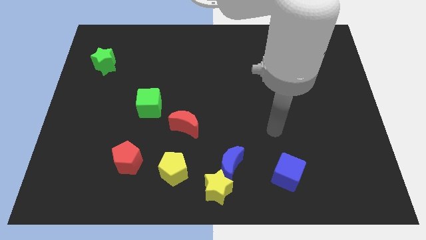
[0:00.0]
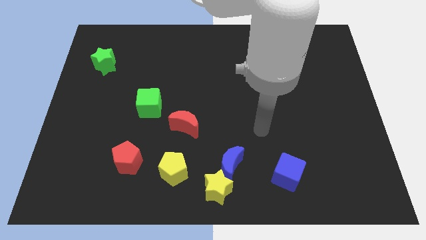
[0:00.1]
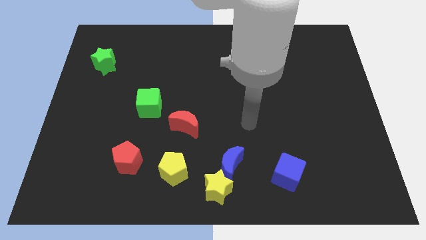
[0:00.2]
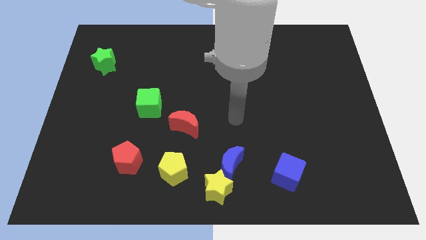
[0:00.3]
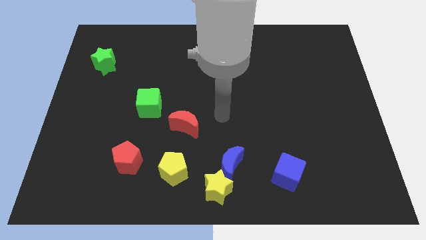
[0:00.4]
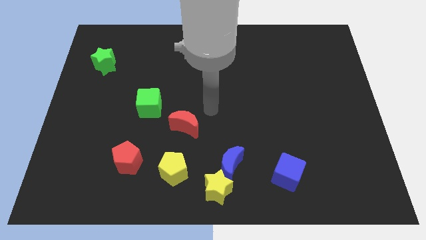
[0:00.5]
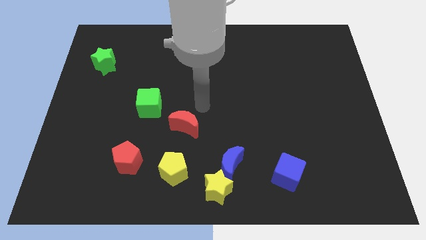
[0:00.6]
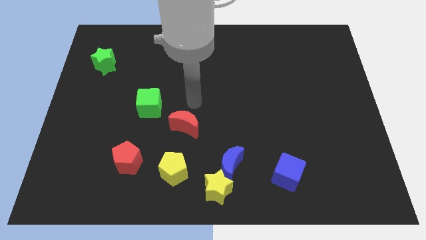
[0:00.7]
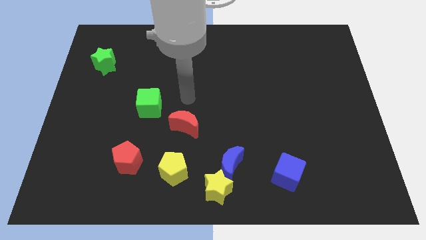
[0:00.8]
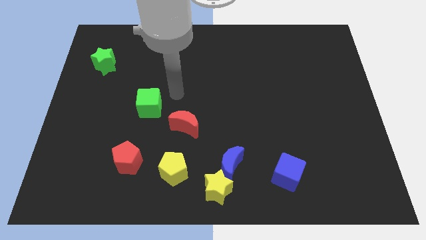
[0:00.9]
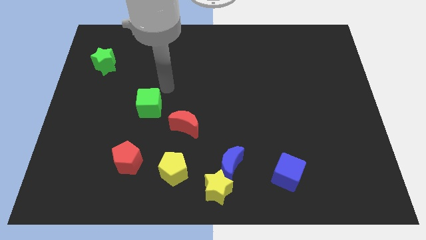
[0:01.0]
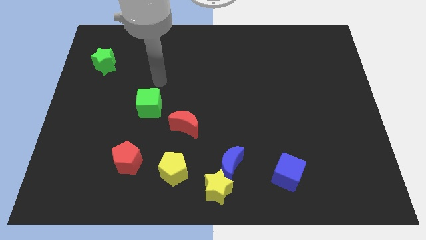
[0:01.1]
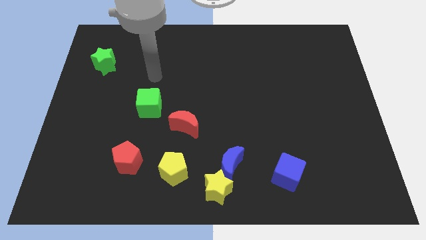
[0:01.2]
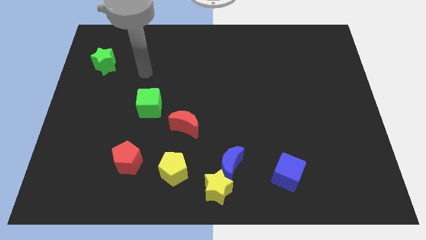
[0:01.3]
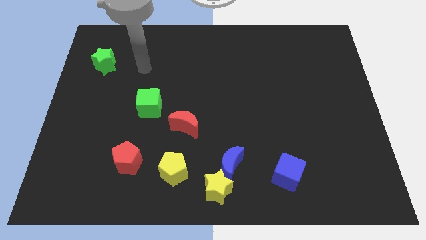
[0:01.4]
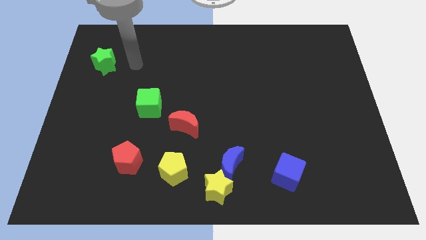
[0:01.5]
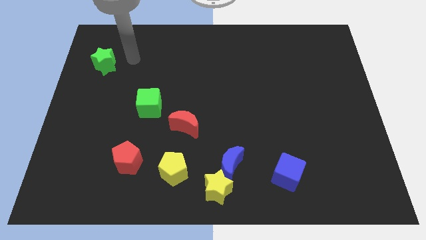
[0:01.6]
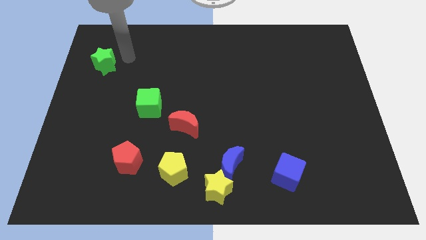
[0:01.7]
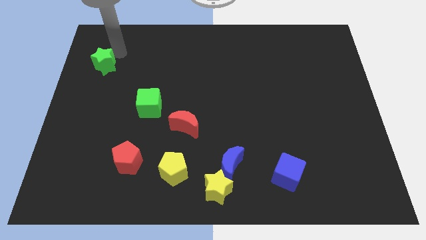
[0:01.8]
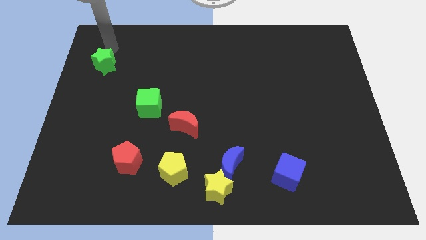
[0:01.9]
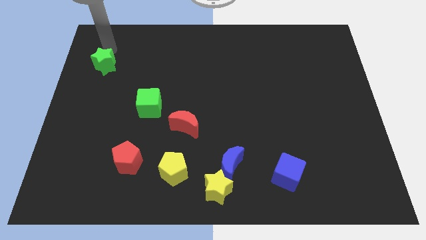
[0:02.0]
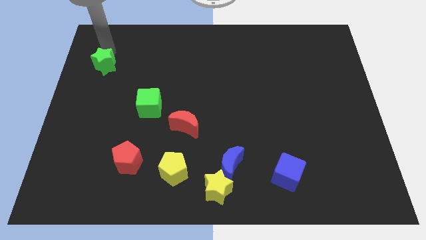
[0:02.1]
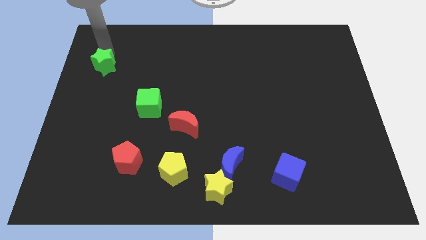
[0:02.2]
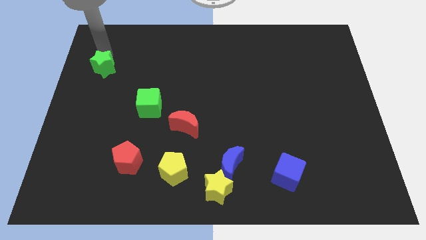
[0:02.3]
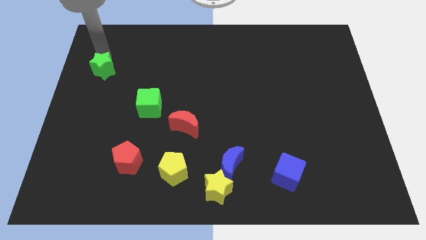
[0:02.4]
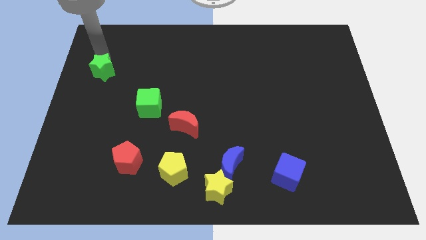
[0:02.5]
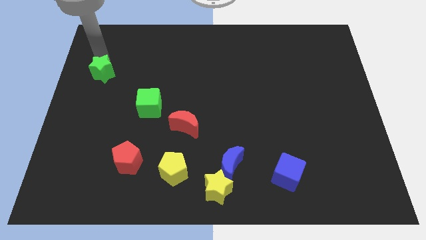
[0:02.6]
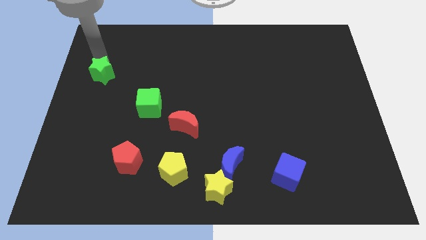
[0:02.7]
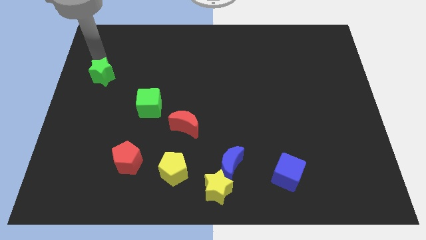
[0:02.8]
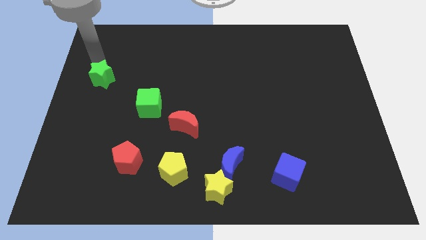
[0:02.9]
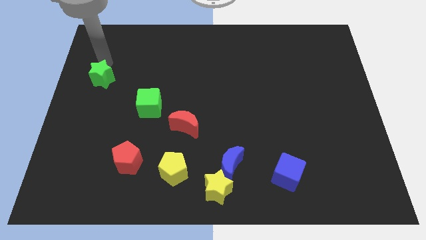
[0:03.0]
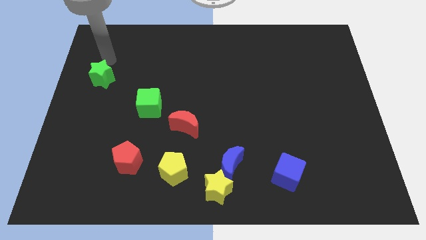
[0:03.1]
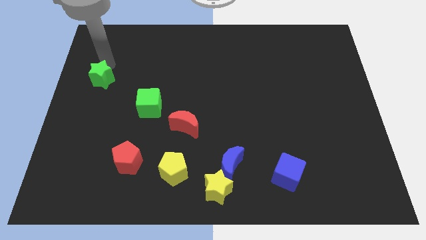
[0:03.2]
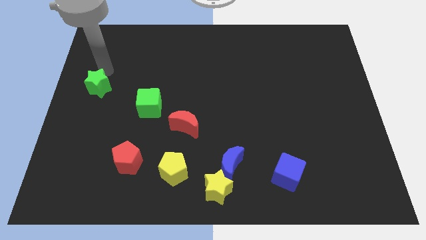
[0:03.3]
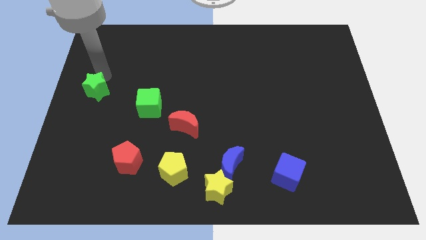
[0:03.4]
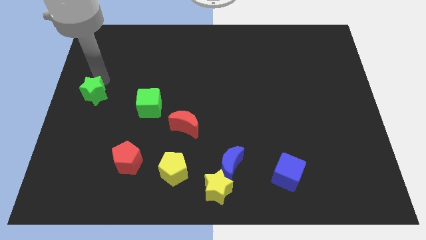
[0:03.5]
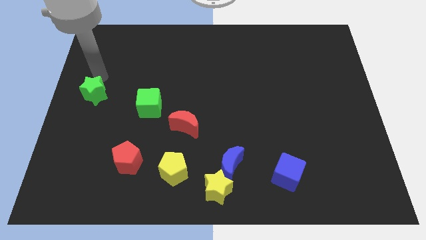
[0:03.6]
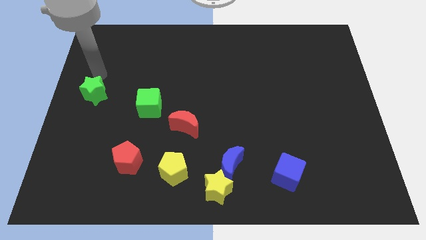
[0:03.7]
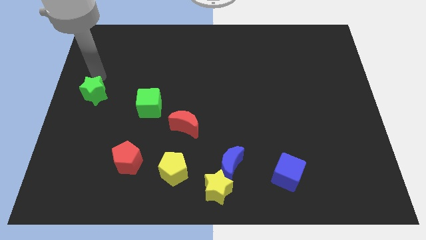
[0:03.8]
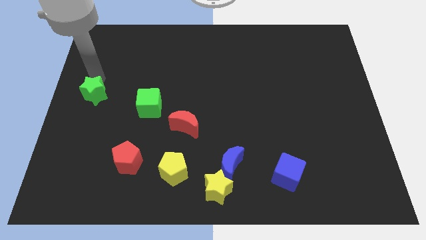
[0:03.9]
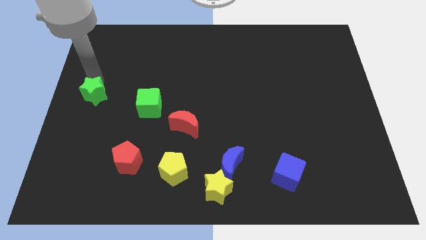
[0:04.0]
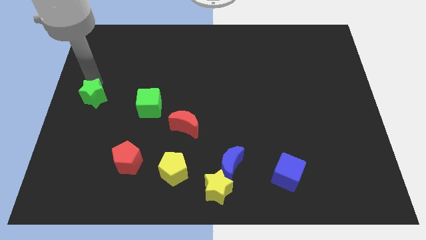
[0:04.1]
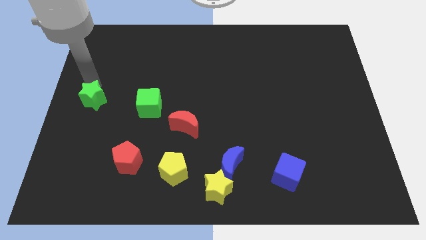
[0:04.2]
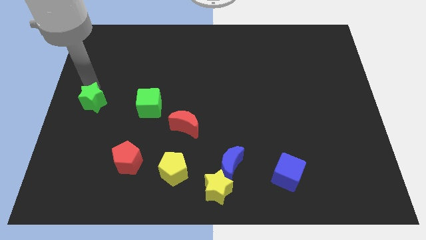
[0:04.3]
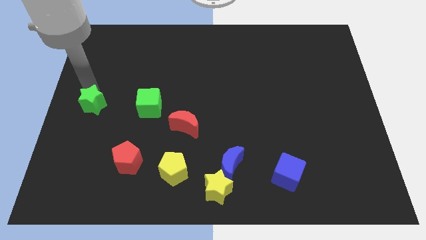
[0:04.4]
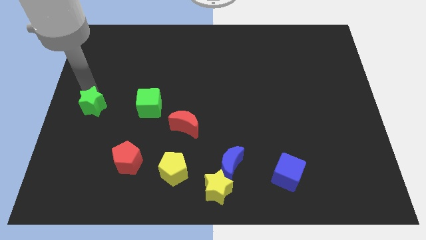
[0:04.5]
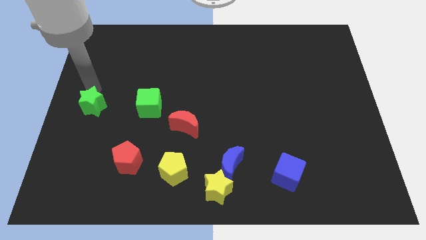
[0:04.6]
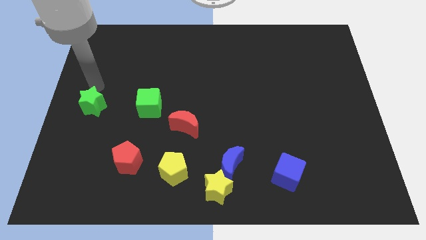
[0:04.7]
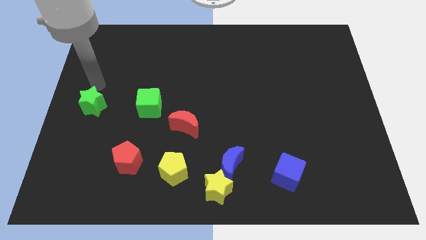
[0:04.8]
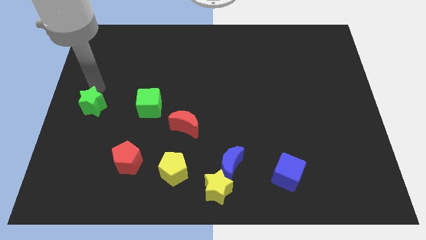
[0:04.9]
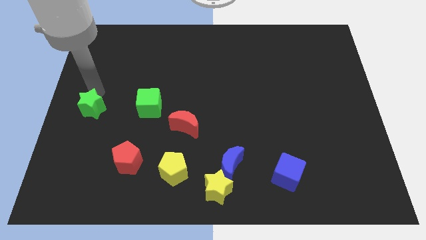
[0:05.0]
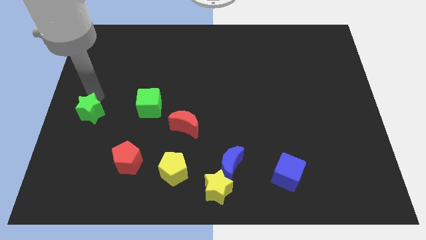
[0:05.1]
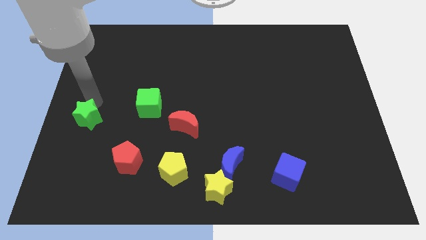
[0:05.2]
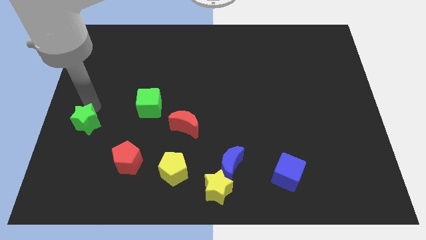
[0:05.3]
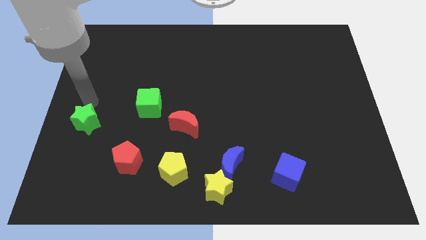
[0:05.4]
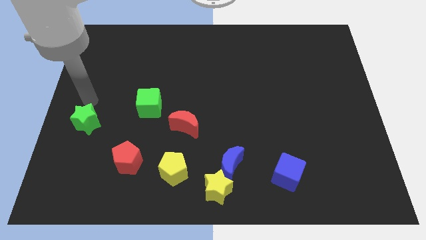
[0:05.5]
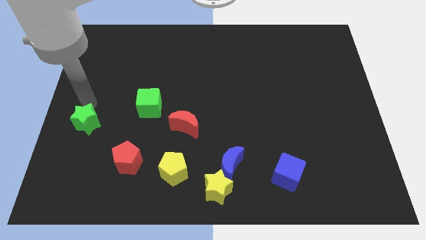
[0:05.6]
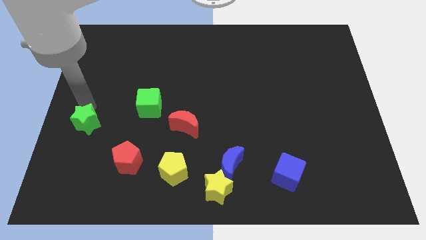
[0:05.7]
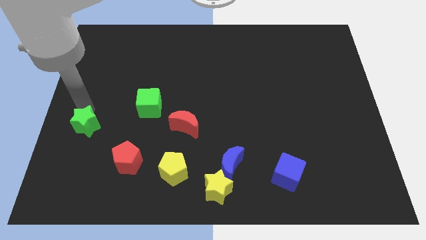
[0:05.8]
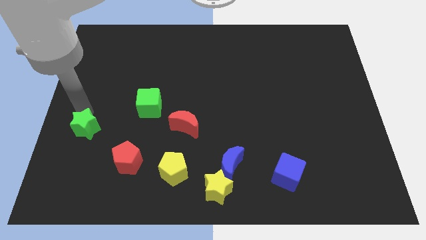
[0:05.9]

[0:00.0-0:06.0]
push the green star downwards

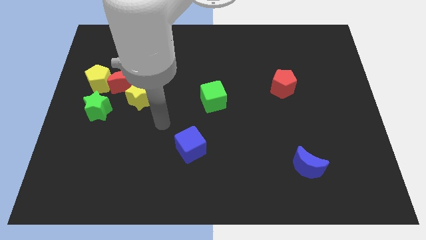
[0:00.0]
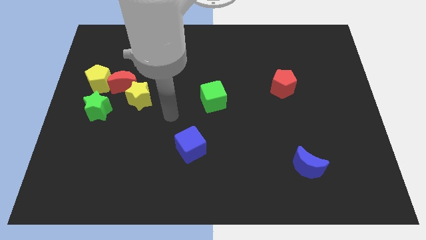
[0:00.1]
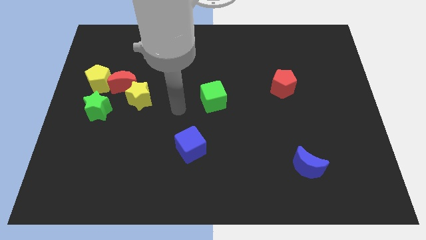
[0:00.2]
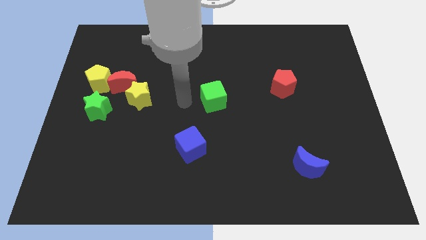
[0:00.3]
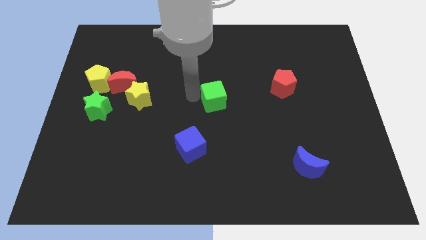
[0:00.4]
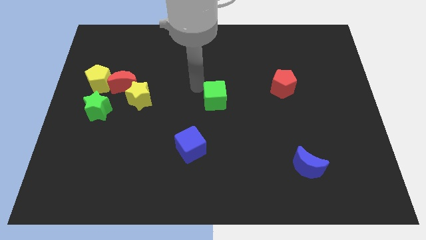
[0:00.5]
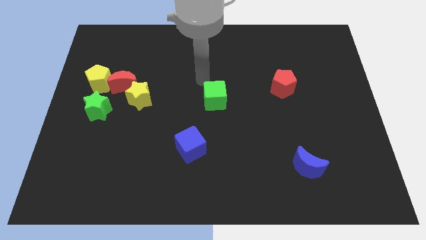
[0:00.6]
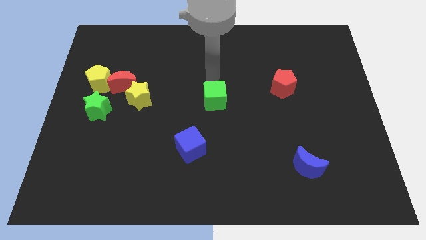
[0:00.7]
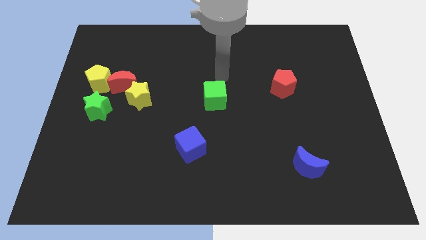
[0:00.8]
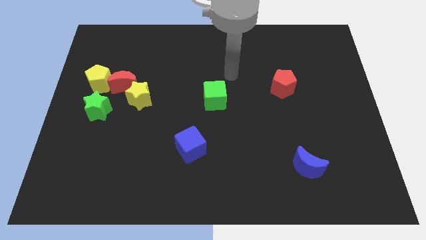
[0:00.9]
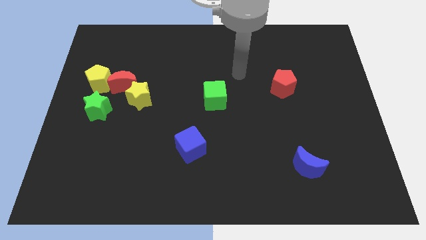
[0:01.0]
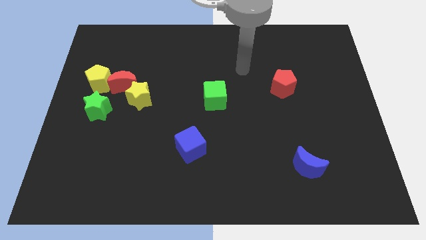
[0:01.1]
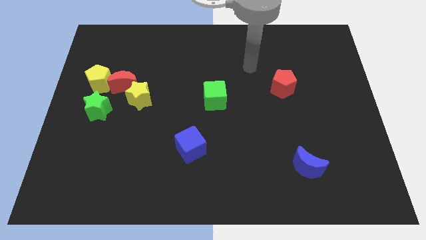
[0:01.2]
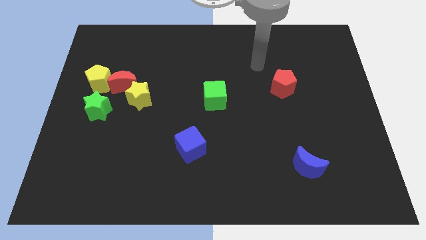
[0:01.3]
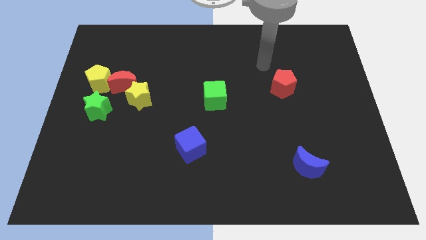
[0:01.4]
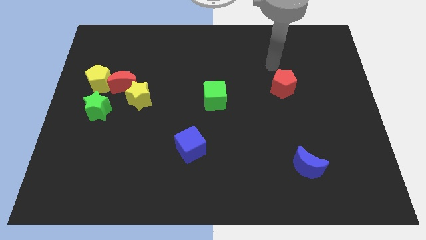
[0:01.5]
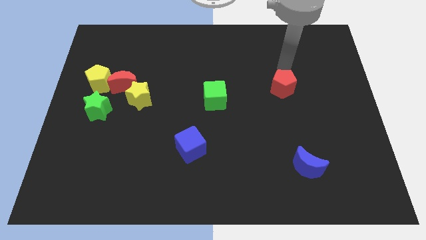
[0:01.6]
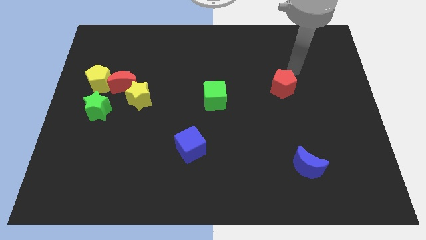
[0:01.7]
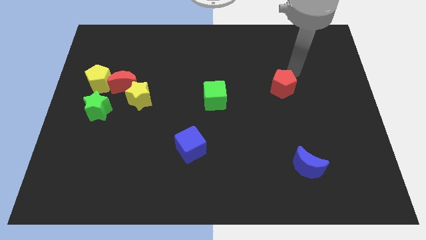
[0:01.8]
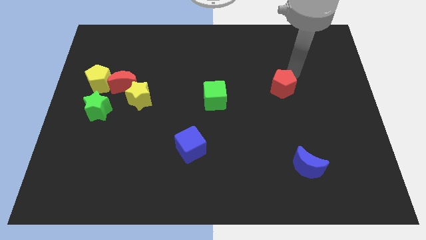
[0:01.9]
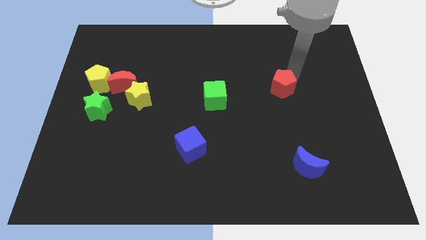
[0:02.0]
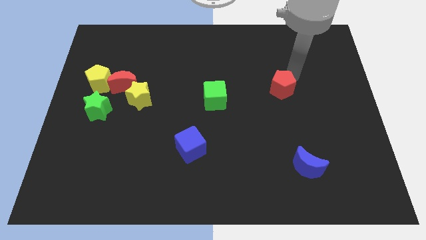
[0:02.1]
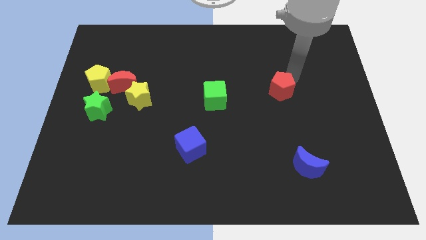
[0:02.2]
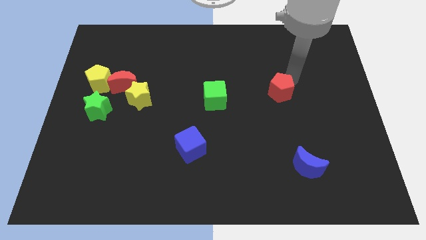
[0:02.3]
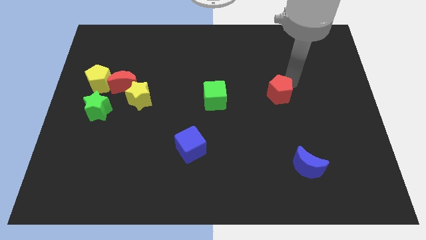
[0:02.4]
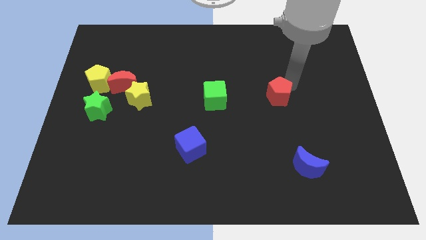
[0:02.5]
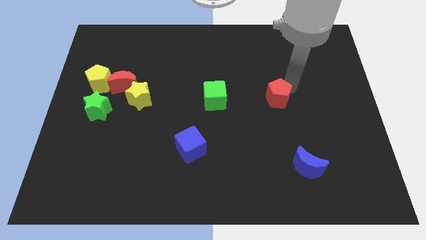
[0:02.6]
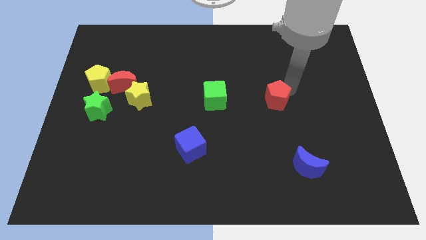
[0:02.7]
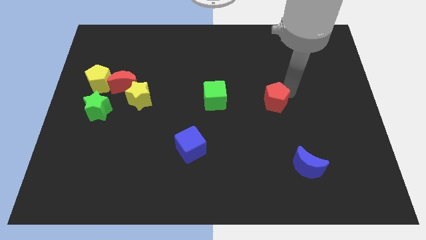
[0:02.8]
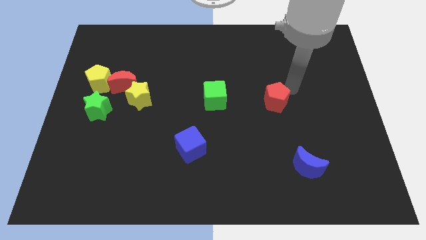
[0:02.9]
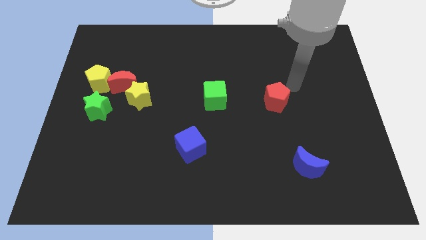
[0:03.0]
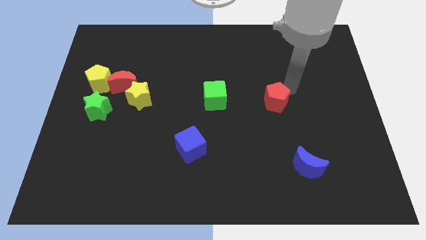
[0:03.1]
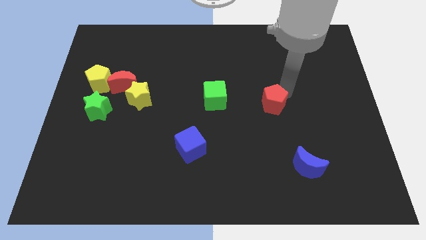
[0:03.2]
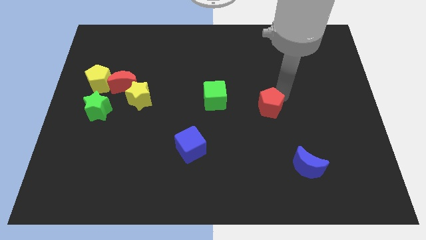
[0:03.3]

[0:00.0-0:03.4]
slide the red pentagon a little bit downwards and left diagonally
